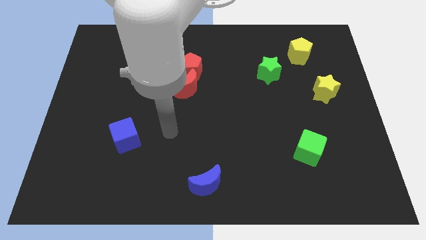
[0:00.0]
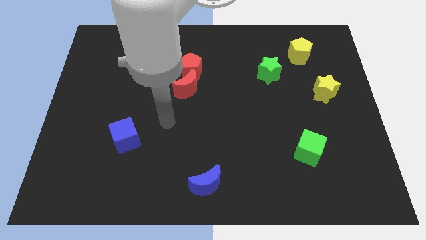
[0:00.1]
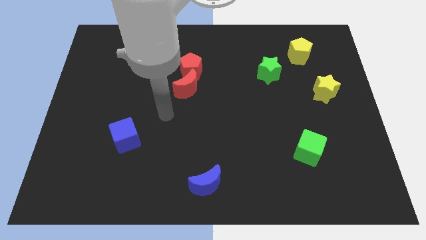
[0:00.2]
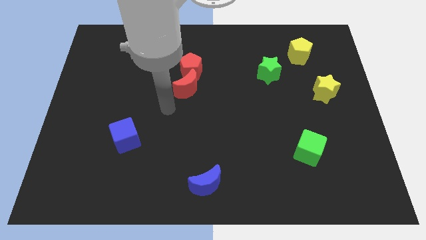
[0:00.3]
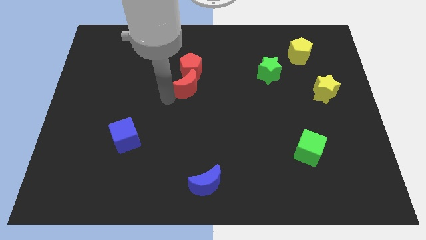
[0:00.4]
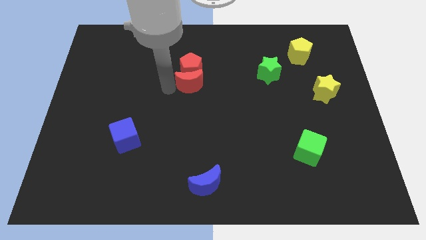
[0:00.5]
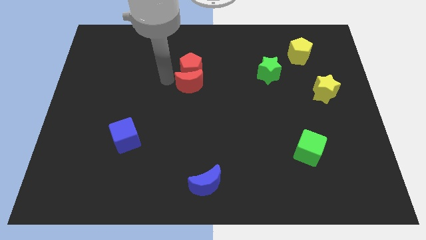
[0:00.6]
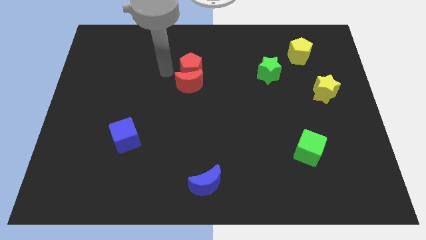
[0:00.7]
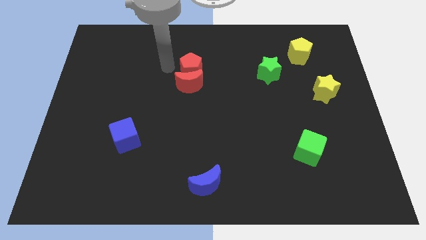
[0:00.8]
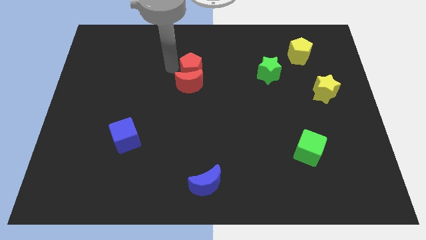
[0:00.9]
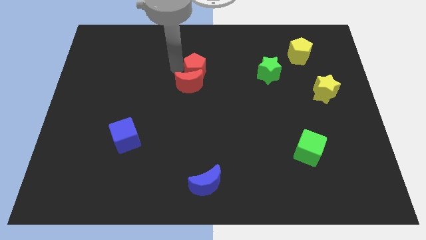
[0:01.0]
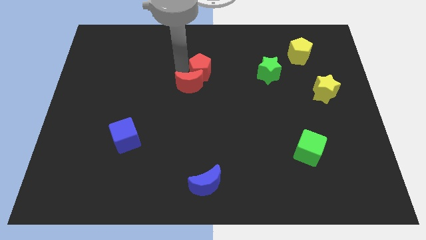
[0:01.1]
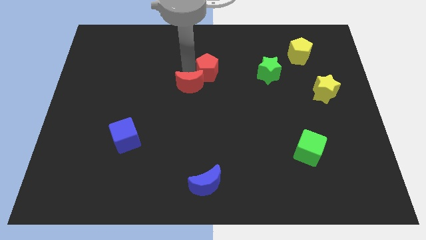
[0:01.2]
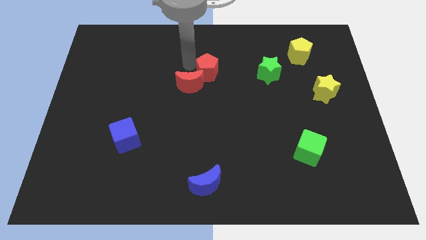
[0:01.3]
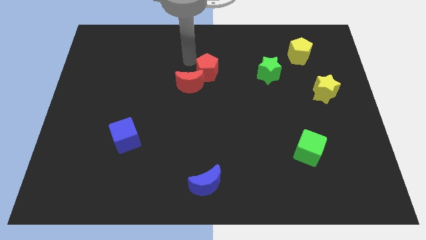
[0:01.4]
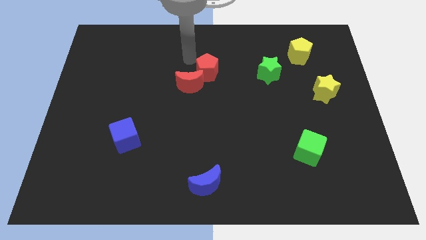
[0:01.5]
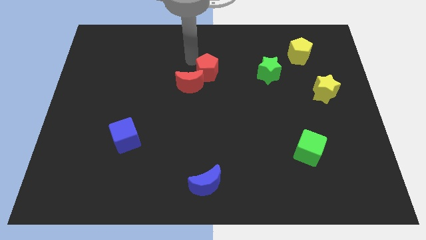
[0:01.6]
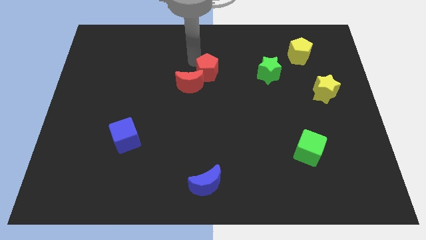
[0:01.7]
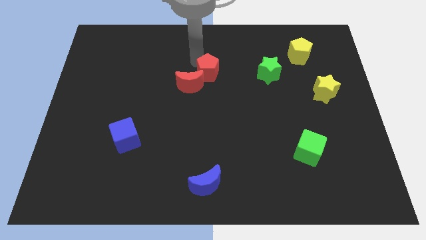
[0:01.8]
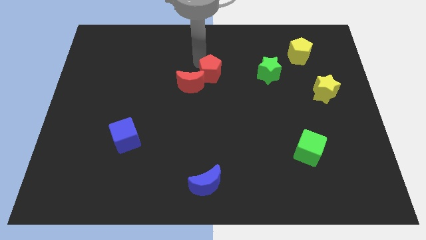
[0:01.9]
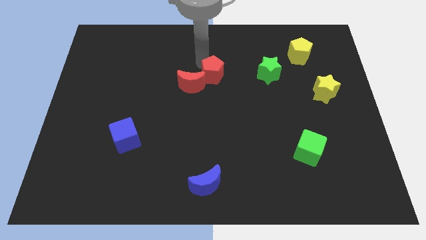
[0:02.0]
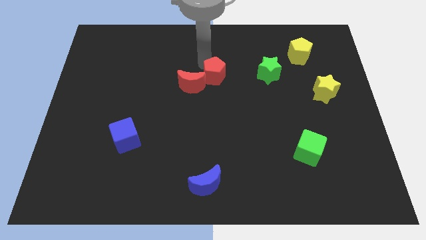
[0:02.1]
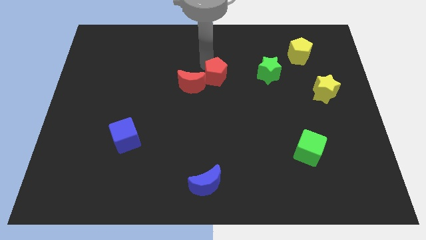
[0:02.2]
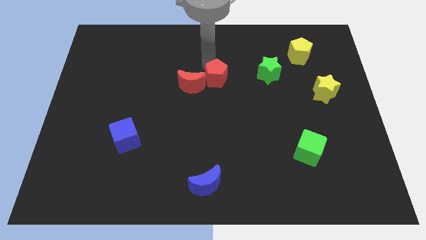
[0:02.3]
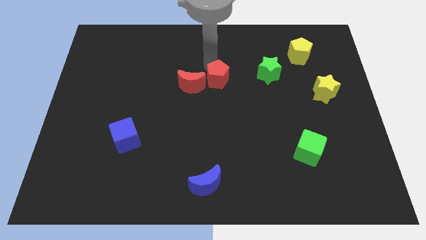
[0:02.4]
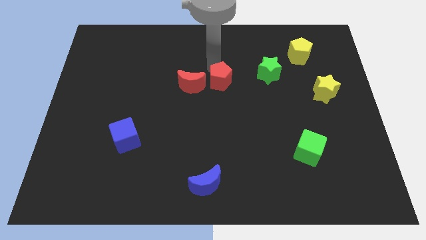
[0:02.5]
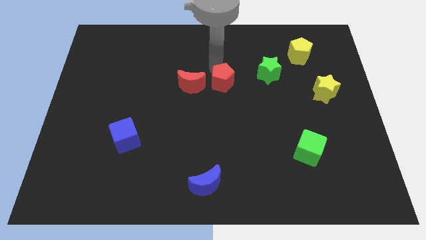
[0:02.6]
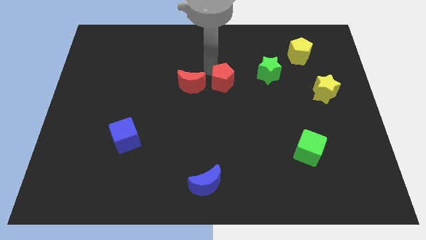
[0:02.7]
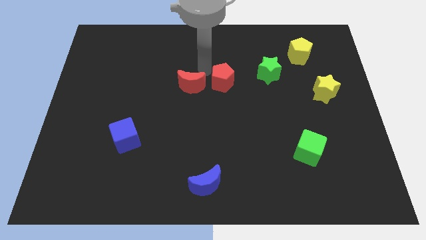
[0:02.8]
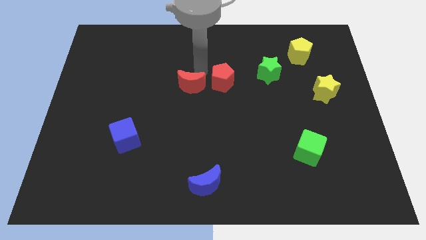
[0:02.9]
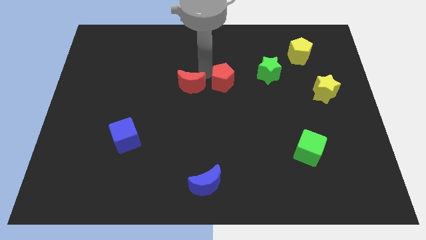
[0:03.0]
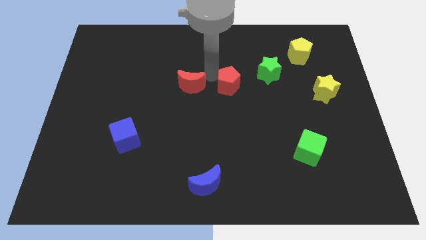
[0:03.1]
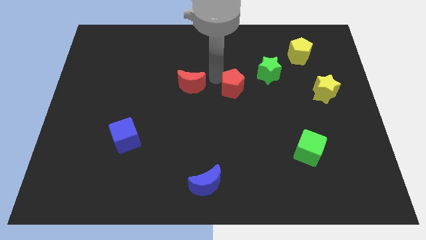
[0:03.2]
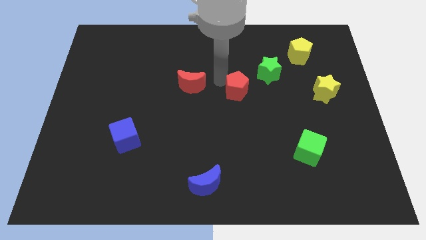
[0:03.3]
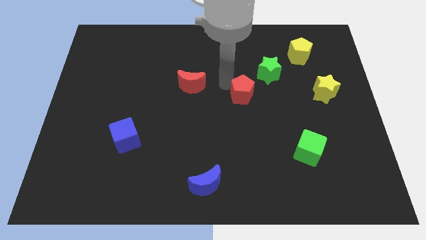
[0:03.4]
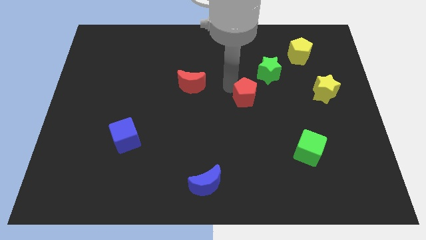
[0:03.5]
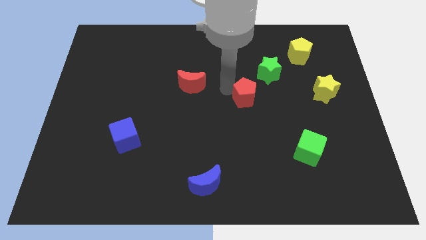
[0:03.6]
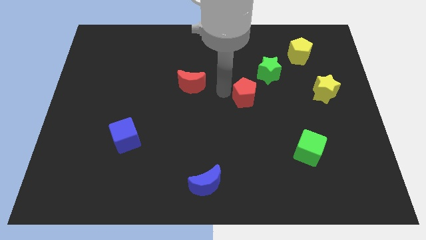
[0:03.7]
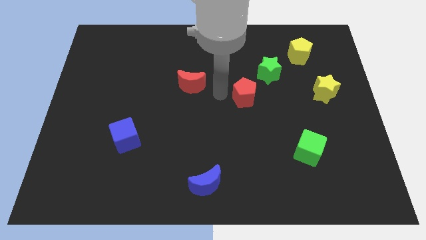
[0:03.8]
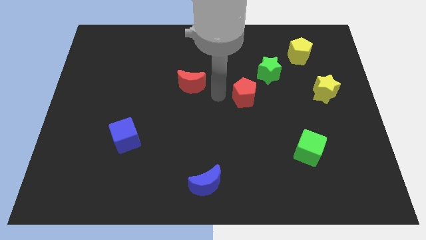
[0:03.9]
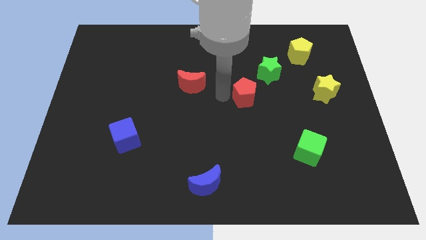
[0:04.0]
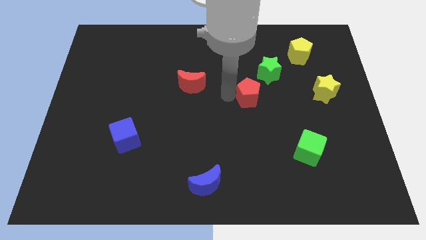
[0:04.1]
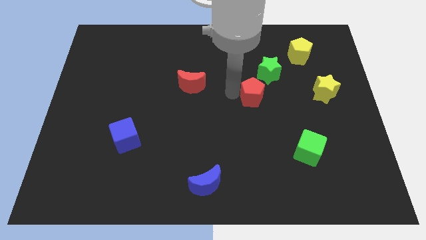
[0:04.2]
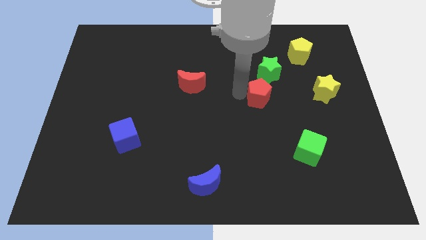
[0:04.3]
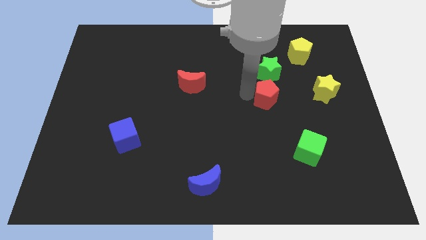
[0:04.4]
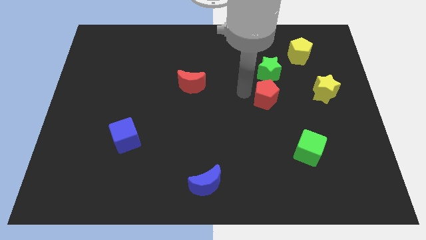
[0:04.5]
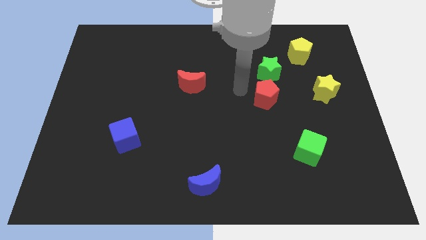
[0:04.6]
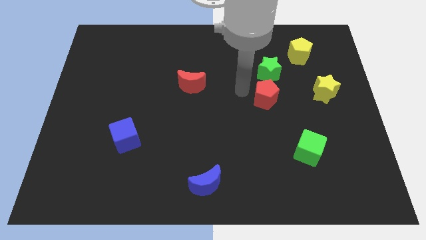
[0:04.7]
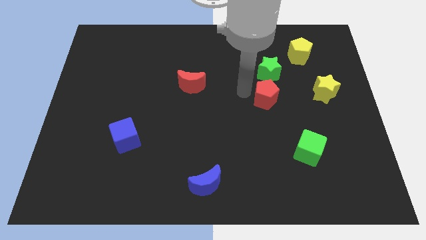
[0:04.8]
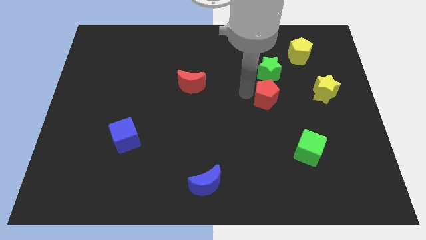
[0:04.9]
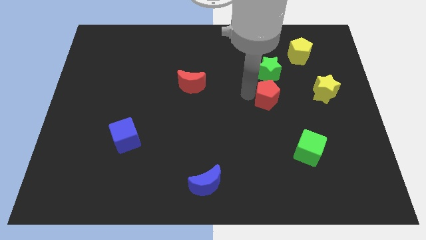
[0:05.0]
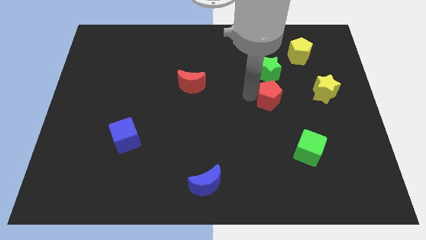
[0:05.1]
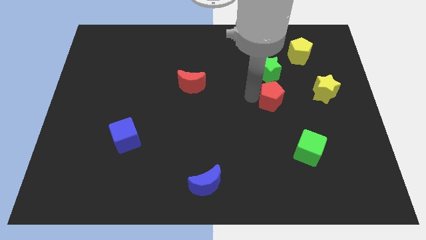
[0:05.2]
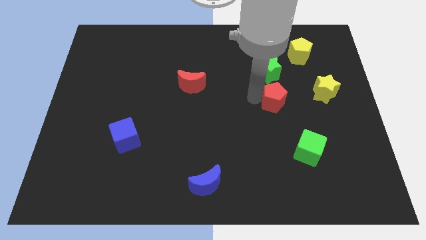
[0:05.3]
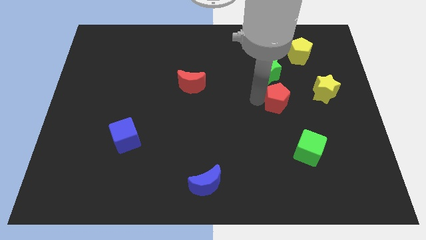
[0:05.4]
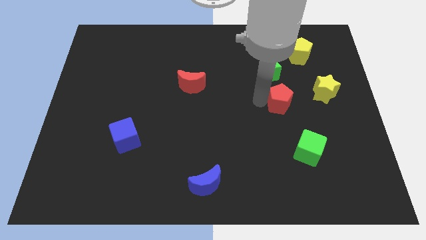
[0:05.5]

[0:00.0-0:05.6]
move the red pentagon above the green cube

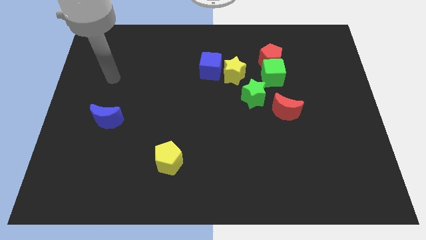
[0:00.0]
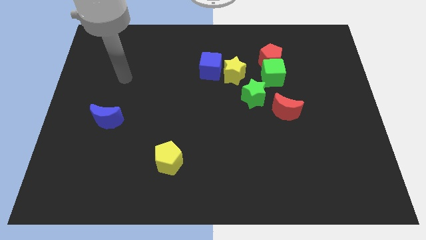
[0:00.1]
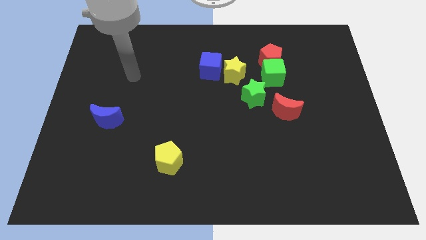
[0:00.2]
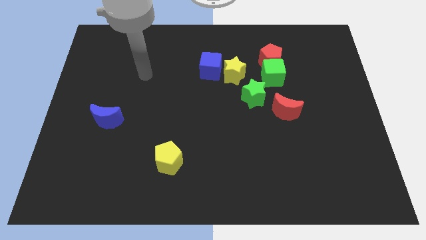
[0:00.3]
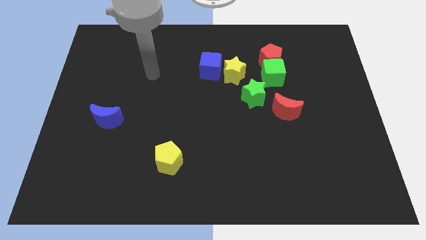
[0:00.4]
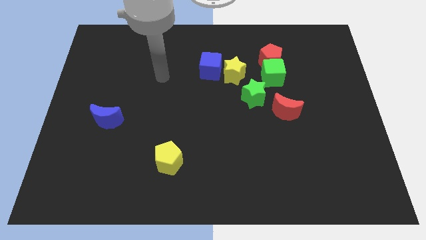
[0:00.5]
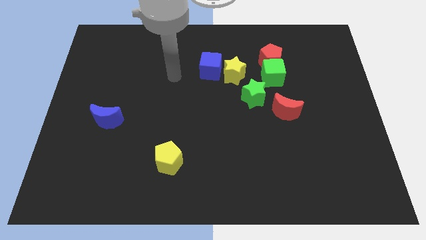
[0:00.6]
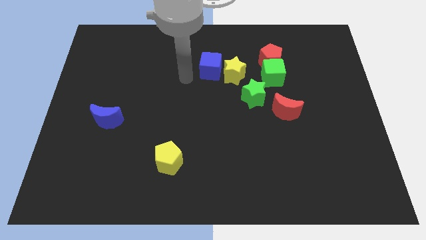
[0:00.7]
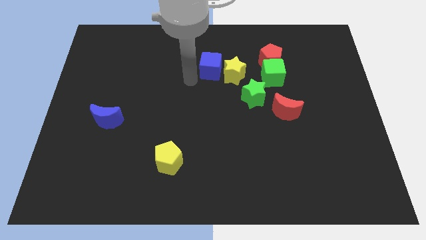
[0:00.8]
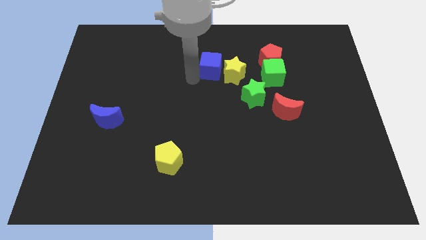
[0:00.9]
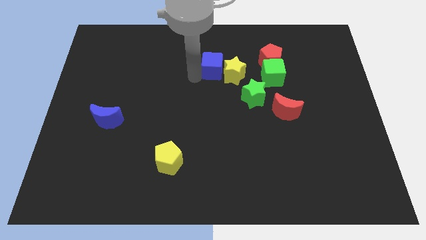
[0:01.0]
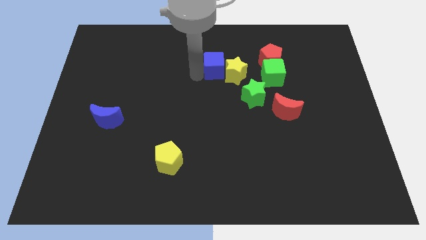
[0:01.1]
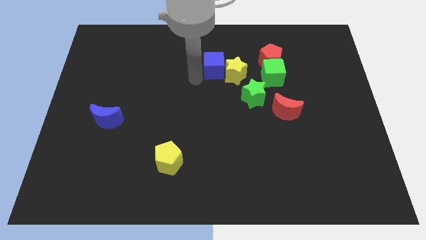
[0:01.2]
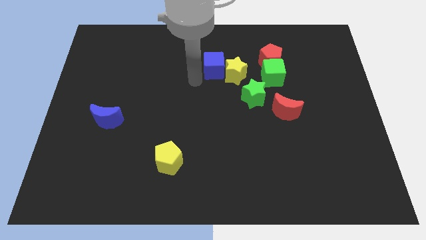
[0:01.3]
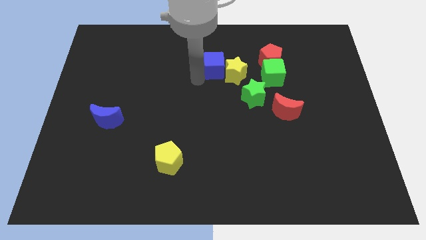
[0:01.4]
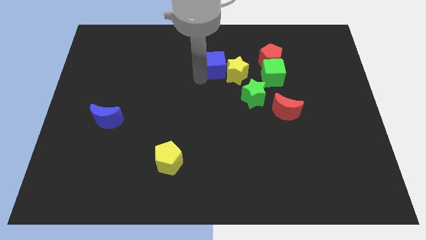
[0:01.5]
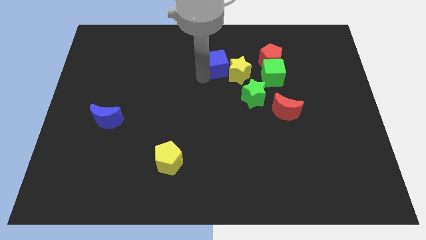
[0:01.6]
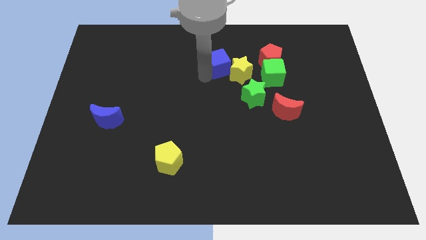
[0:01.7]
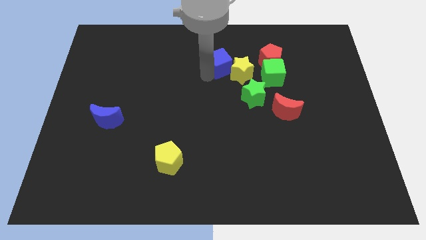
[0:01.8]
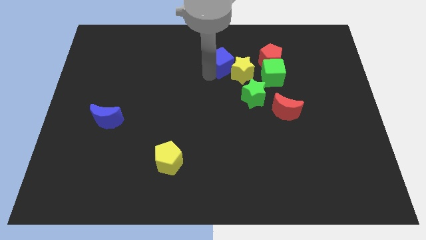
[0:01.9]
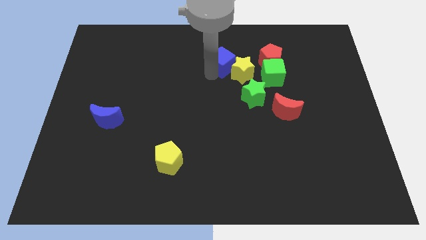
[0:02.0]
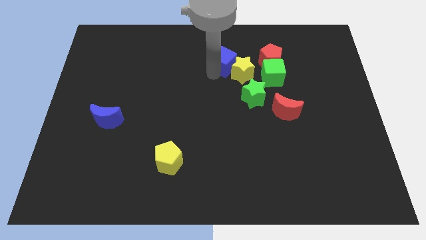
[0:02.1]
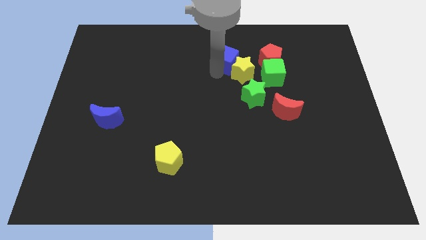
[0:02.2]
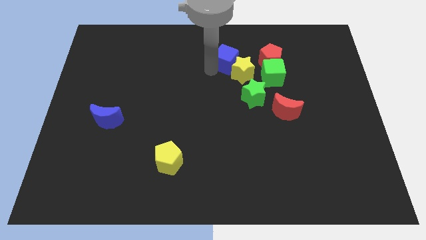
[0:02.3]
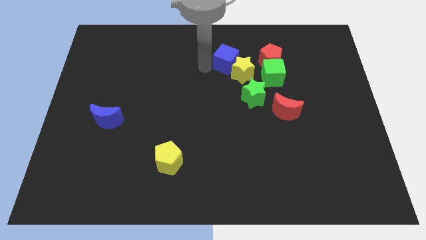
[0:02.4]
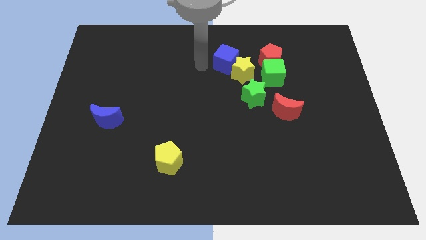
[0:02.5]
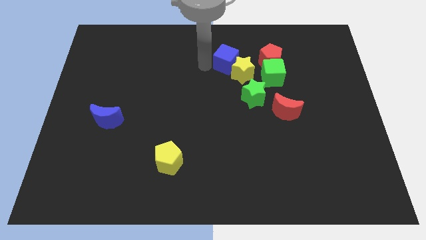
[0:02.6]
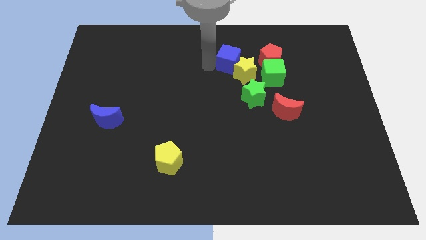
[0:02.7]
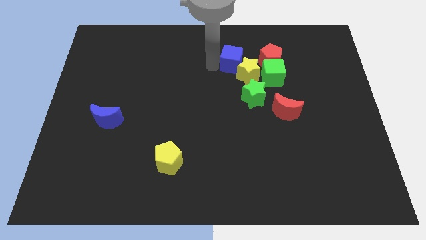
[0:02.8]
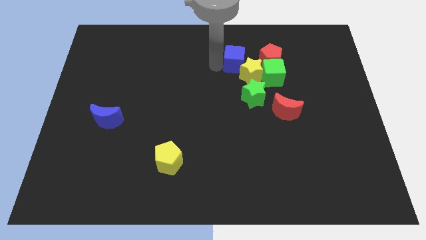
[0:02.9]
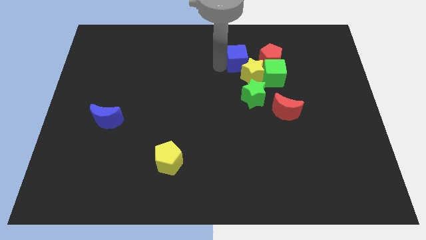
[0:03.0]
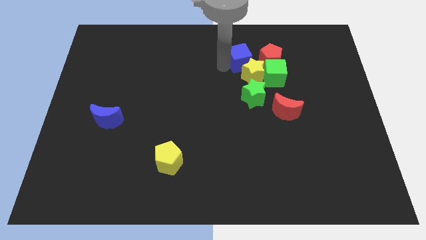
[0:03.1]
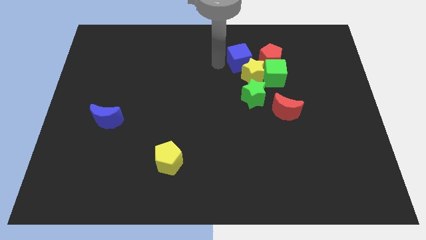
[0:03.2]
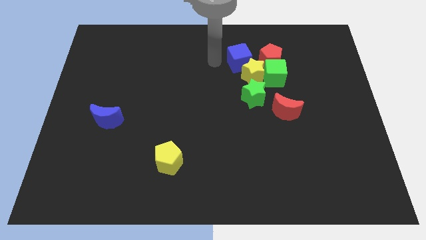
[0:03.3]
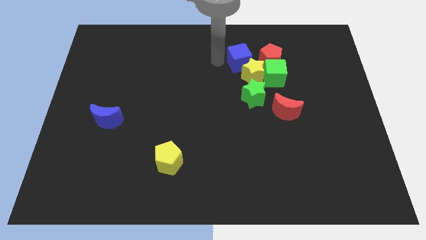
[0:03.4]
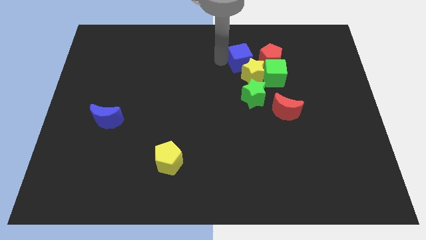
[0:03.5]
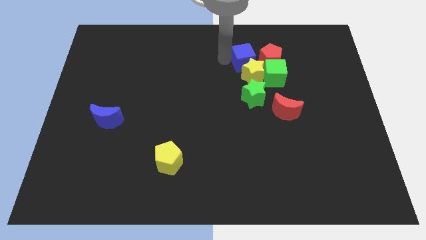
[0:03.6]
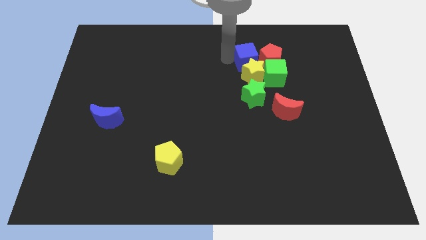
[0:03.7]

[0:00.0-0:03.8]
put the blue cube diagonally up and to the right of the yellow star
